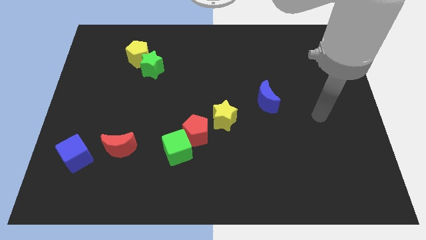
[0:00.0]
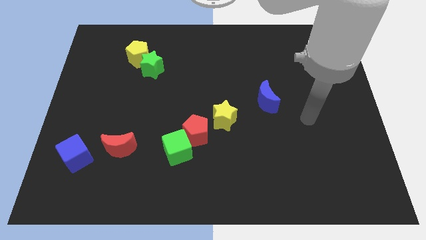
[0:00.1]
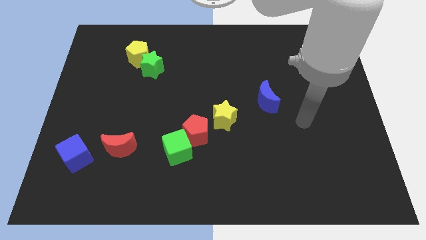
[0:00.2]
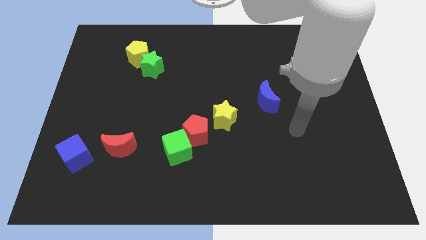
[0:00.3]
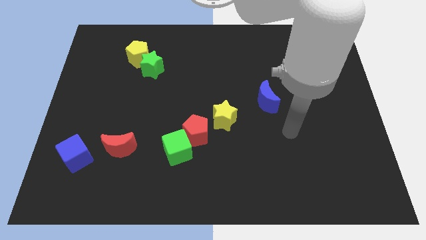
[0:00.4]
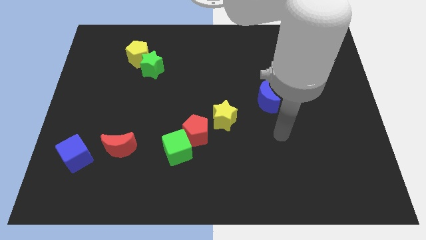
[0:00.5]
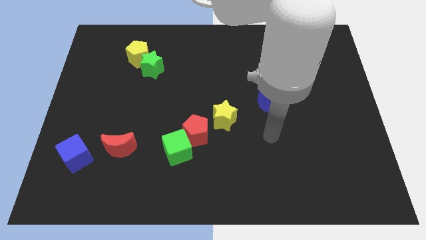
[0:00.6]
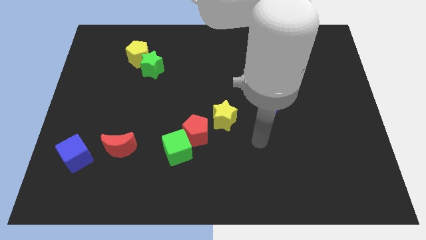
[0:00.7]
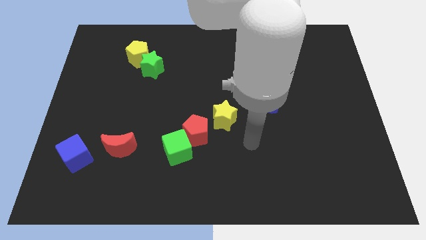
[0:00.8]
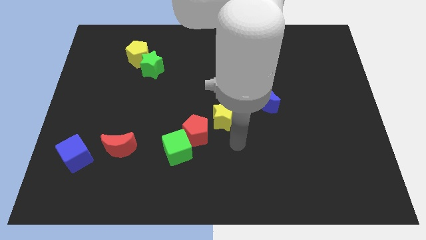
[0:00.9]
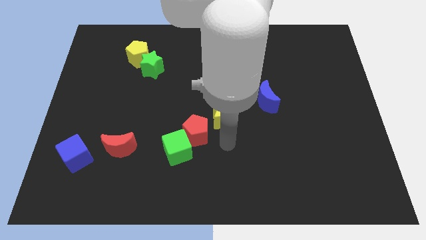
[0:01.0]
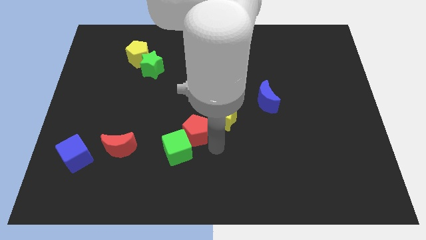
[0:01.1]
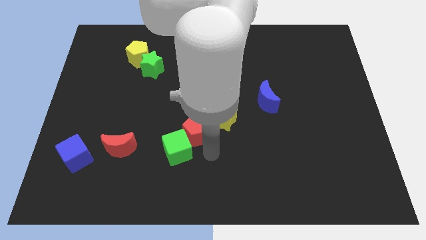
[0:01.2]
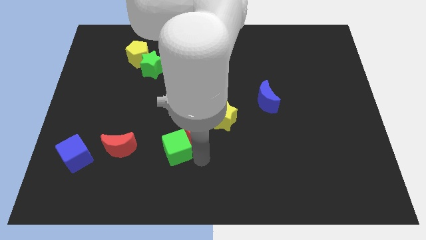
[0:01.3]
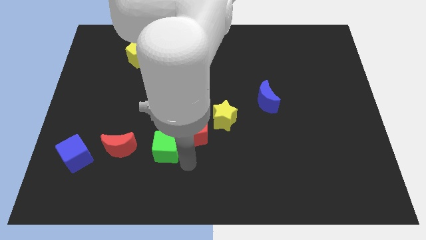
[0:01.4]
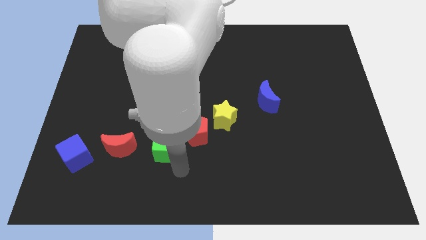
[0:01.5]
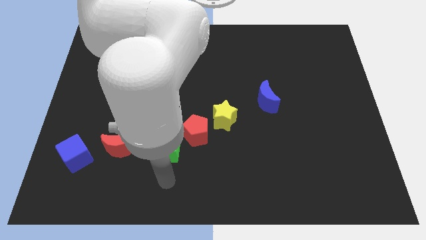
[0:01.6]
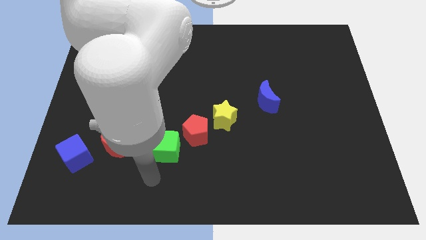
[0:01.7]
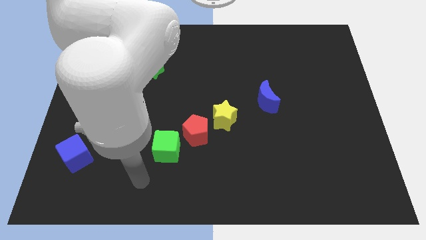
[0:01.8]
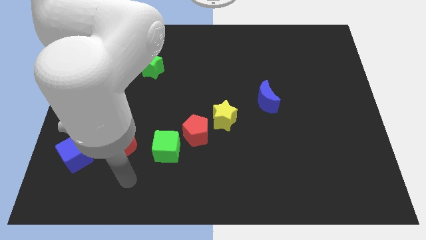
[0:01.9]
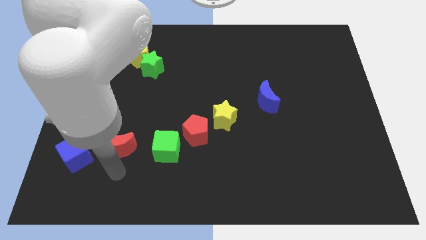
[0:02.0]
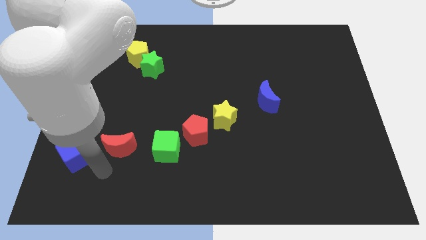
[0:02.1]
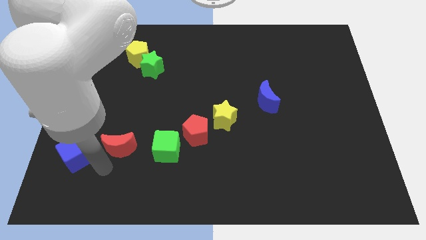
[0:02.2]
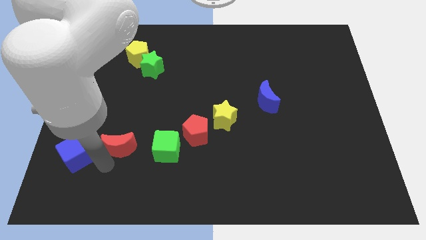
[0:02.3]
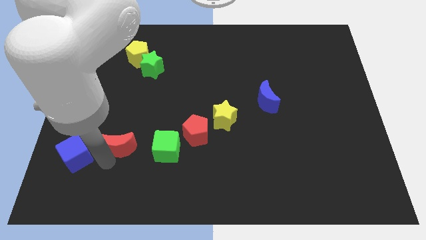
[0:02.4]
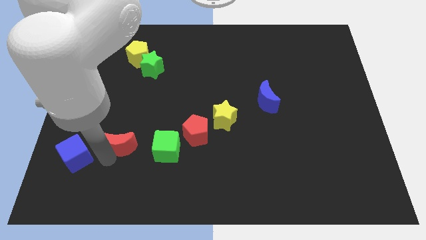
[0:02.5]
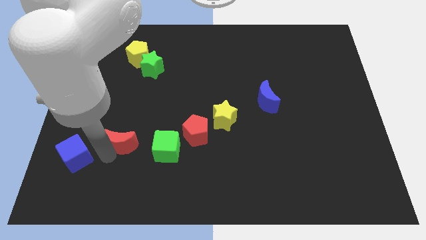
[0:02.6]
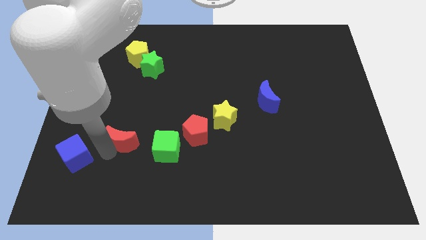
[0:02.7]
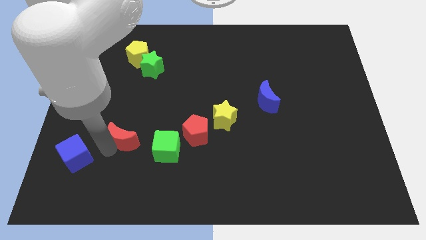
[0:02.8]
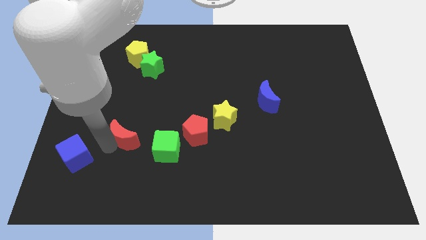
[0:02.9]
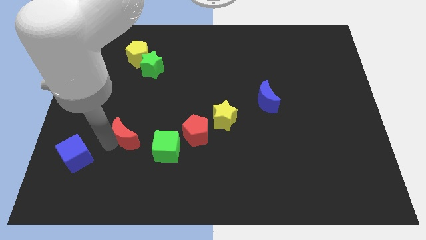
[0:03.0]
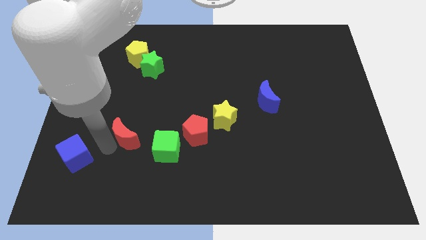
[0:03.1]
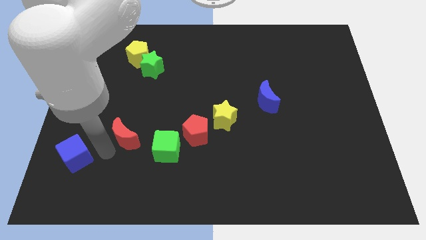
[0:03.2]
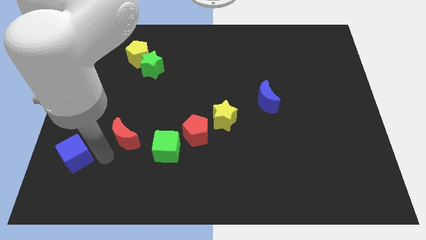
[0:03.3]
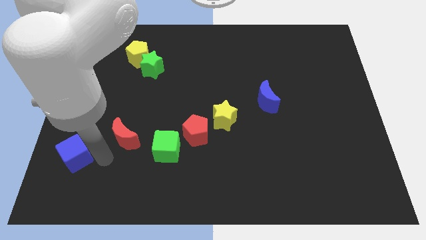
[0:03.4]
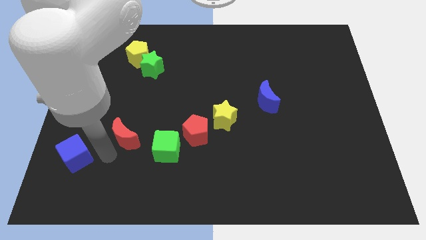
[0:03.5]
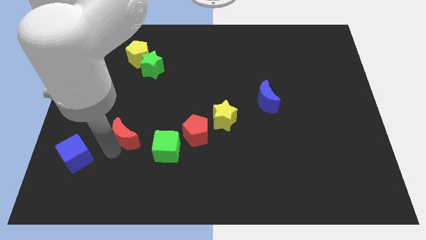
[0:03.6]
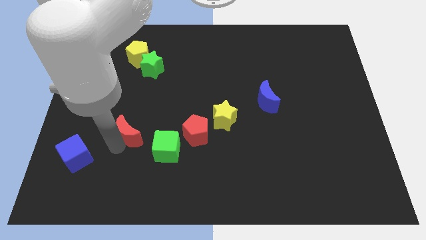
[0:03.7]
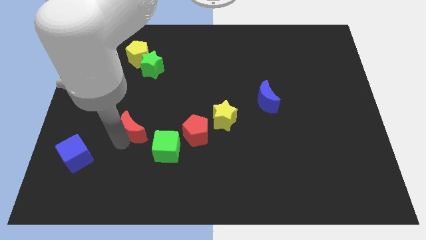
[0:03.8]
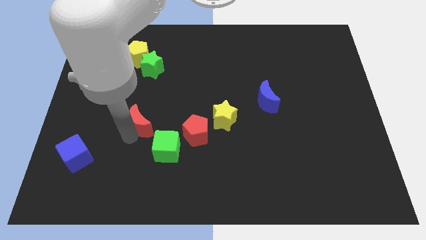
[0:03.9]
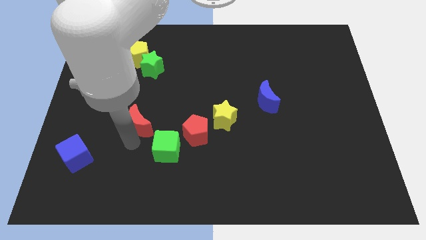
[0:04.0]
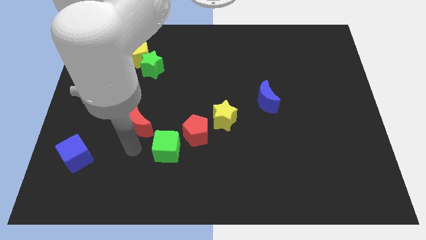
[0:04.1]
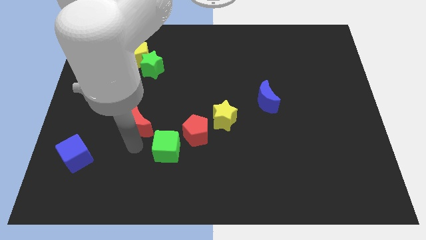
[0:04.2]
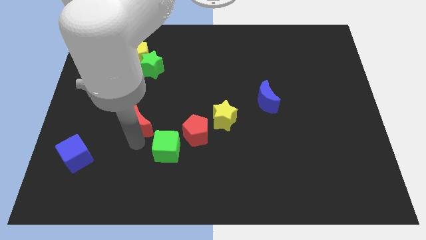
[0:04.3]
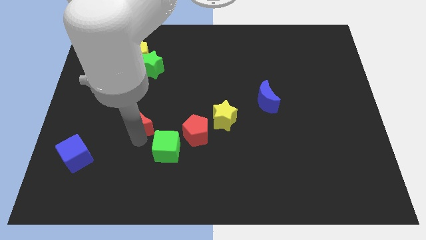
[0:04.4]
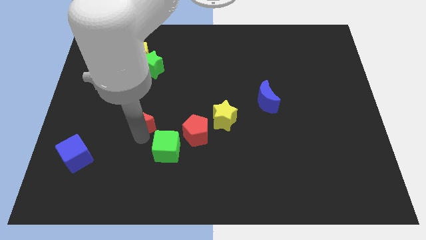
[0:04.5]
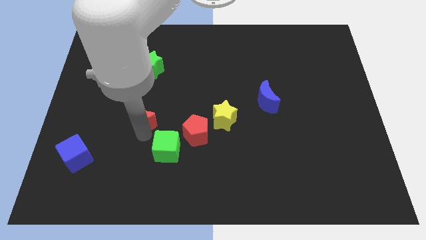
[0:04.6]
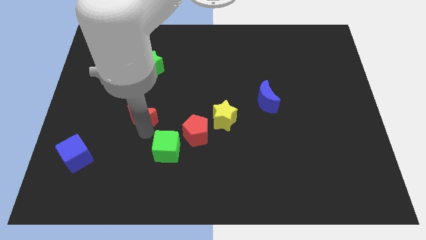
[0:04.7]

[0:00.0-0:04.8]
move the red moon to the bottom of the green star

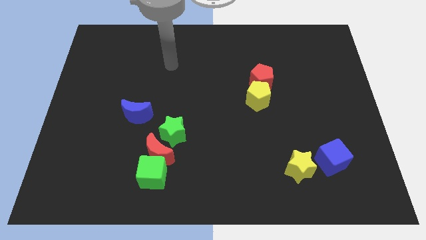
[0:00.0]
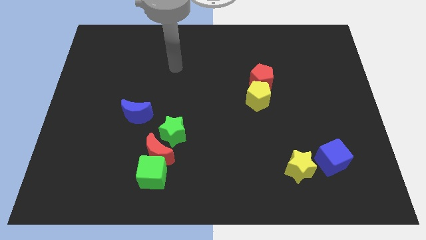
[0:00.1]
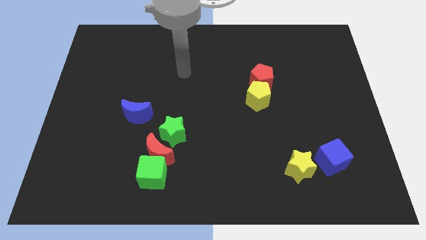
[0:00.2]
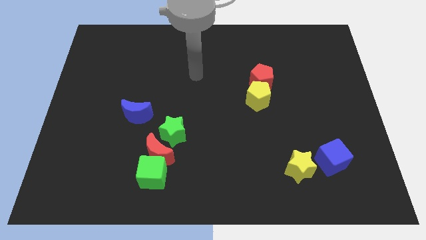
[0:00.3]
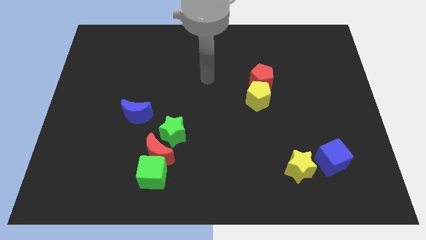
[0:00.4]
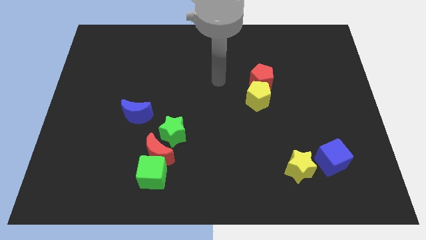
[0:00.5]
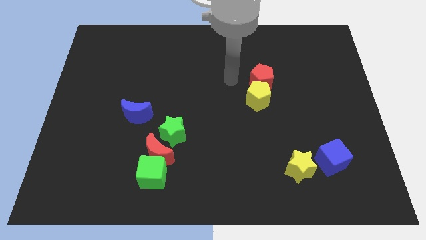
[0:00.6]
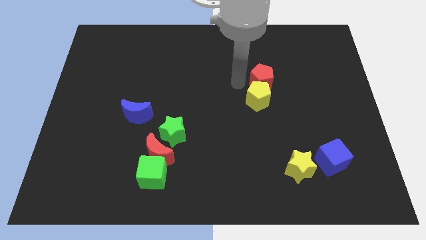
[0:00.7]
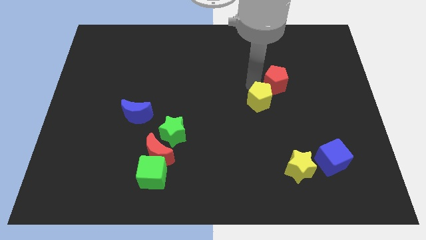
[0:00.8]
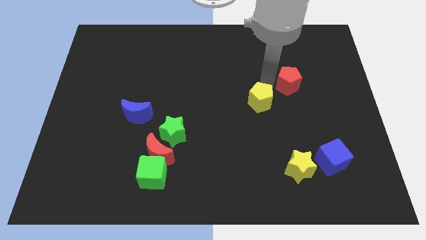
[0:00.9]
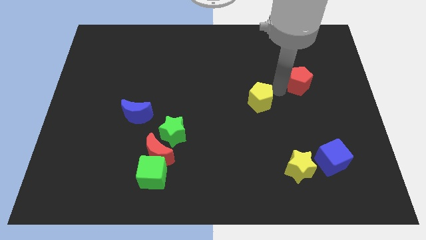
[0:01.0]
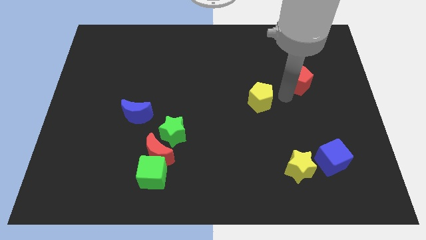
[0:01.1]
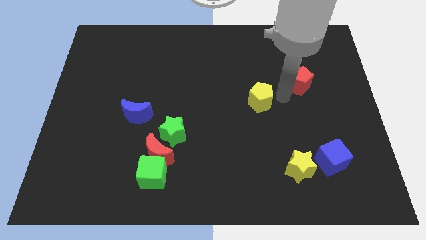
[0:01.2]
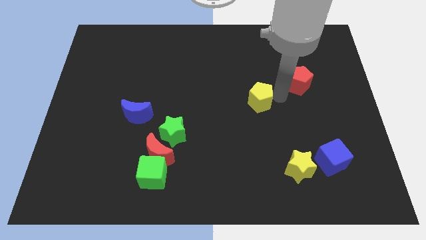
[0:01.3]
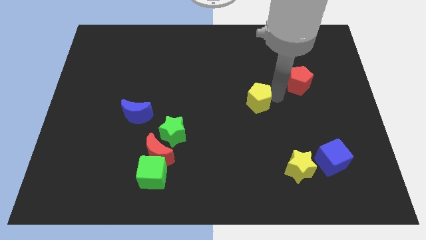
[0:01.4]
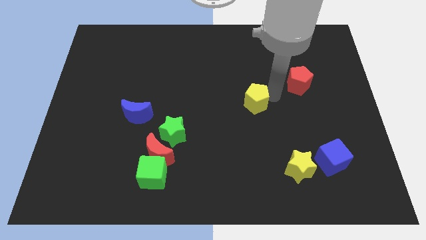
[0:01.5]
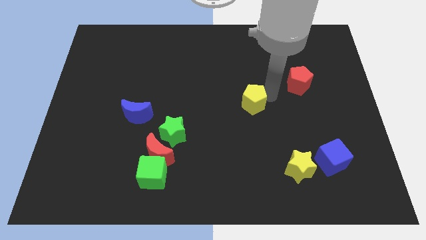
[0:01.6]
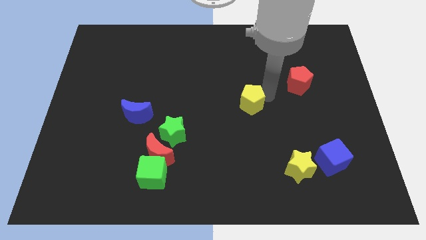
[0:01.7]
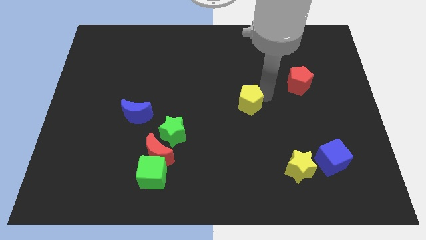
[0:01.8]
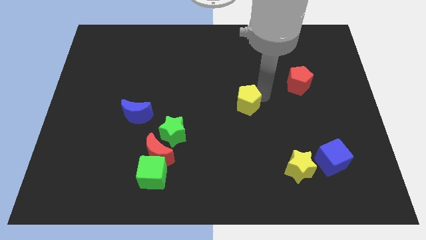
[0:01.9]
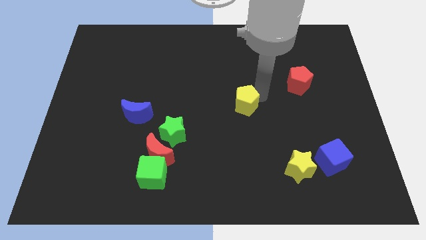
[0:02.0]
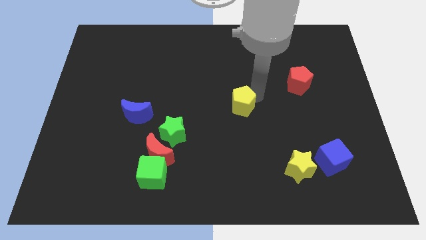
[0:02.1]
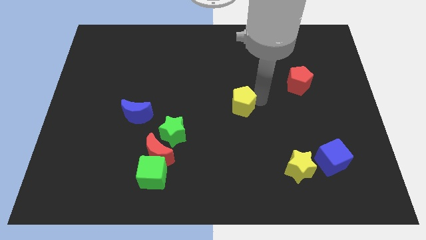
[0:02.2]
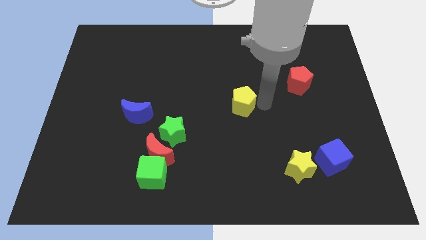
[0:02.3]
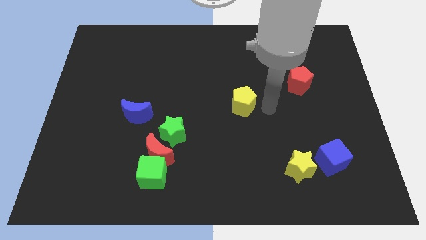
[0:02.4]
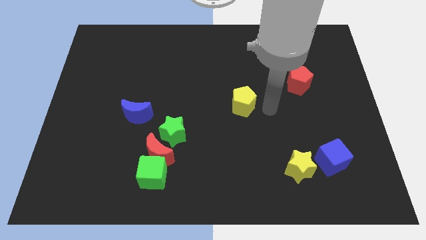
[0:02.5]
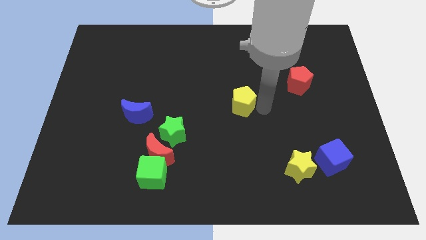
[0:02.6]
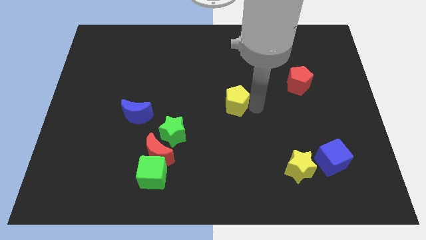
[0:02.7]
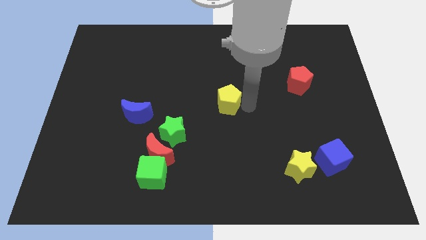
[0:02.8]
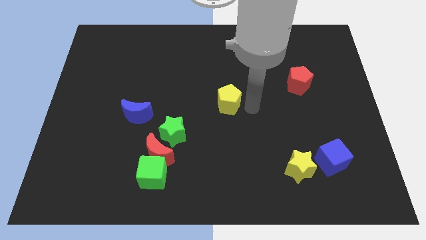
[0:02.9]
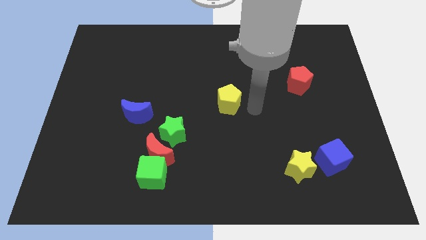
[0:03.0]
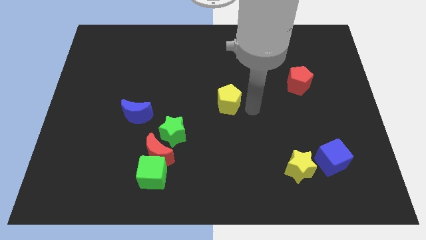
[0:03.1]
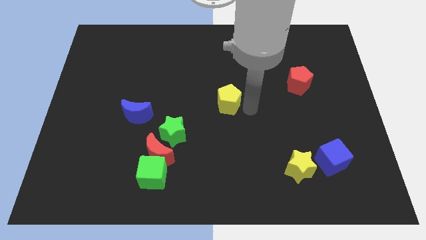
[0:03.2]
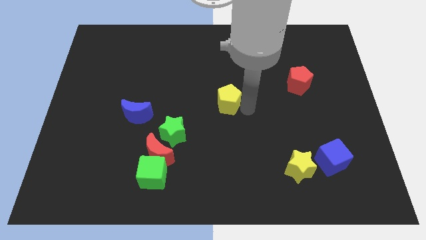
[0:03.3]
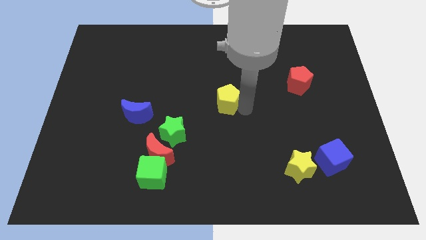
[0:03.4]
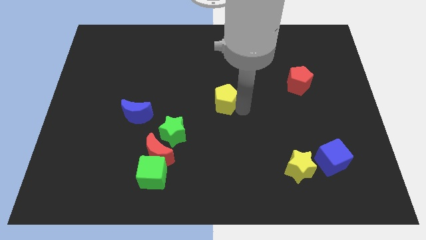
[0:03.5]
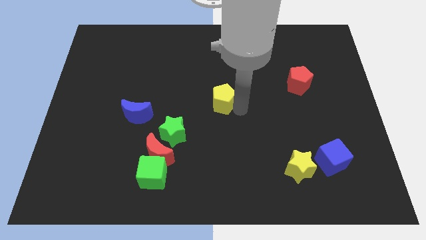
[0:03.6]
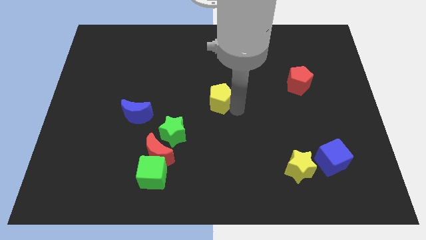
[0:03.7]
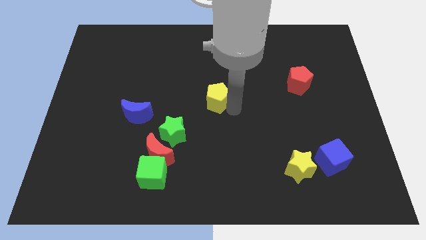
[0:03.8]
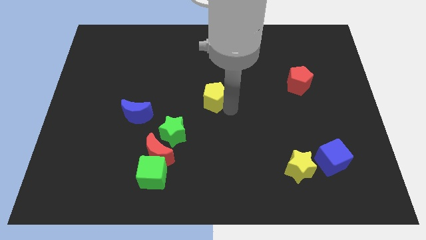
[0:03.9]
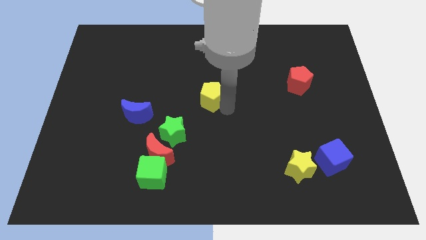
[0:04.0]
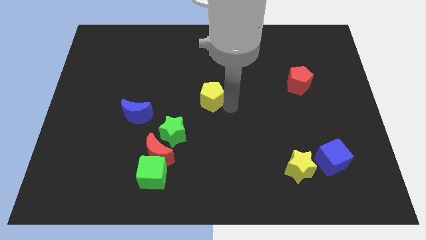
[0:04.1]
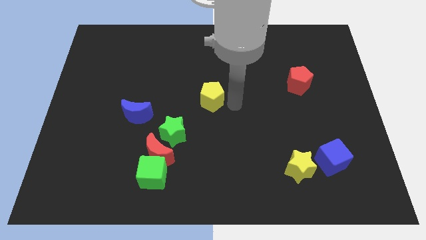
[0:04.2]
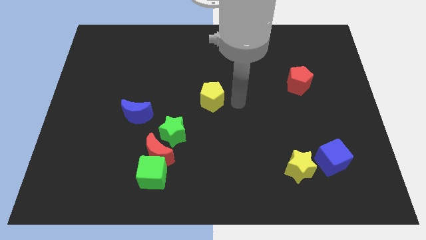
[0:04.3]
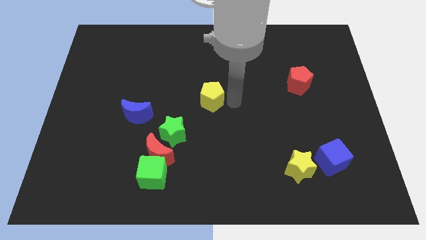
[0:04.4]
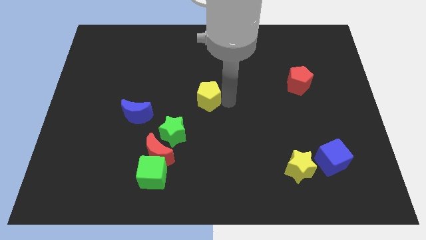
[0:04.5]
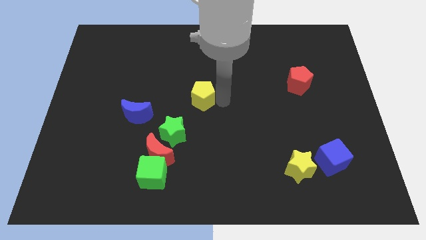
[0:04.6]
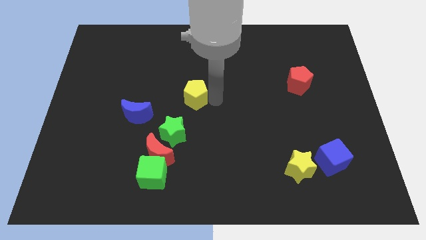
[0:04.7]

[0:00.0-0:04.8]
push the yellow pentagon above the green star
